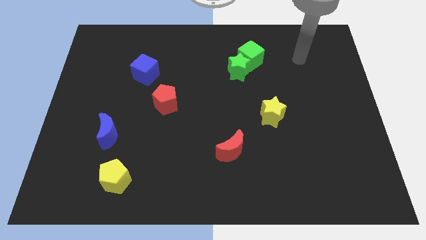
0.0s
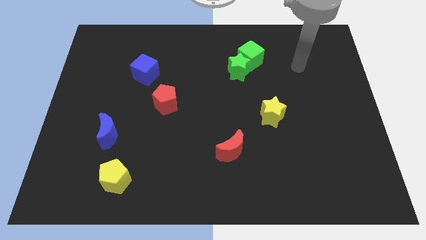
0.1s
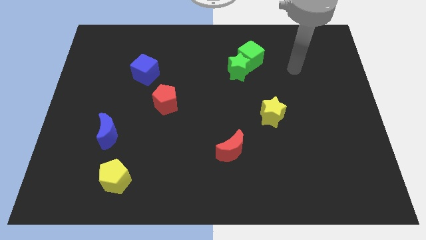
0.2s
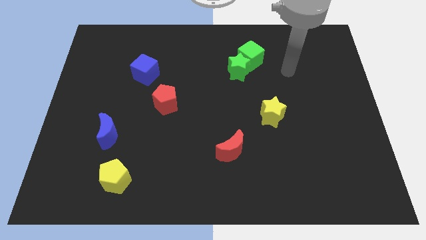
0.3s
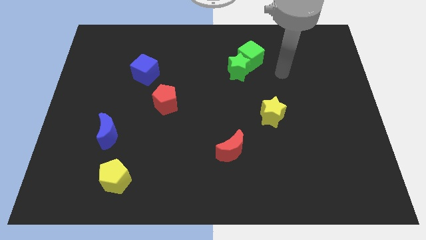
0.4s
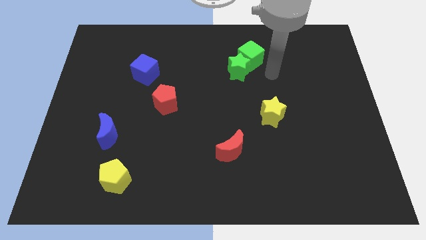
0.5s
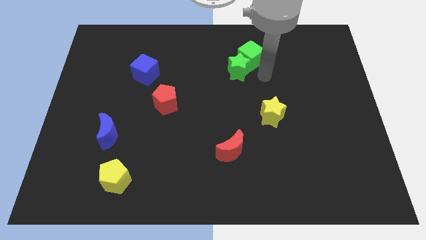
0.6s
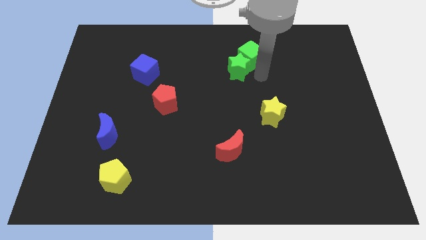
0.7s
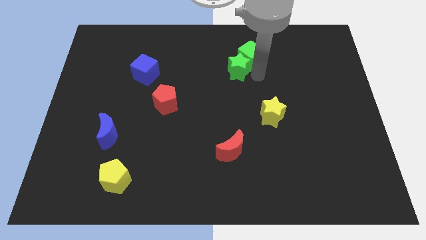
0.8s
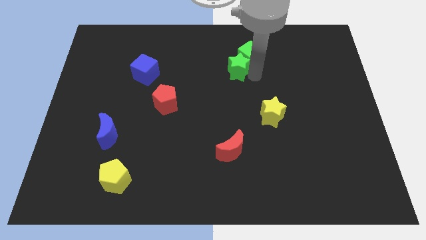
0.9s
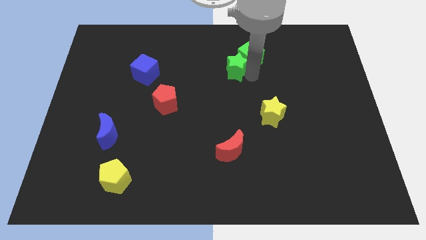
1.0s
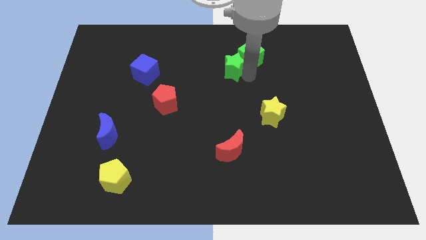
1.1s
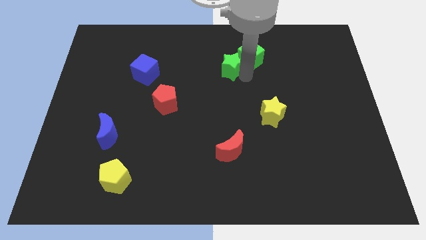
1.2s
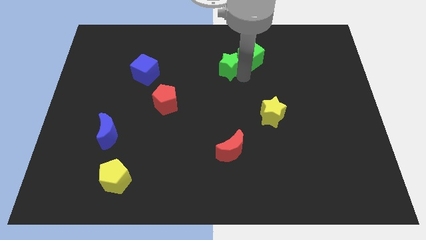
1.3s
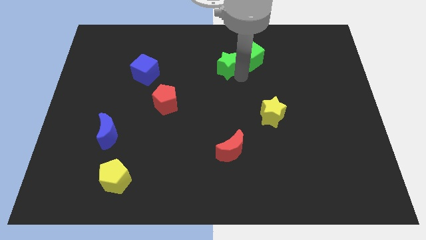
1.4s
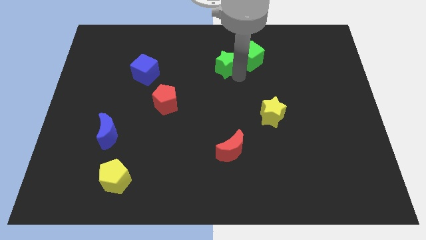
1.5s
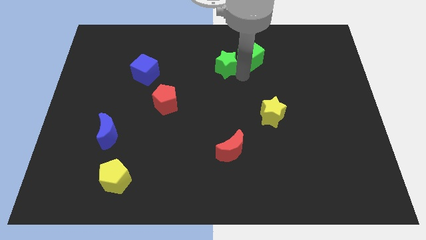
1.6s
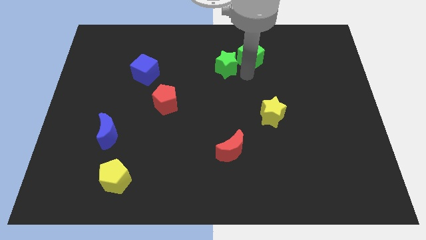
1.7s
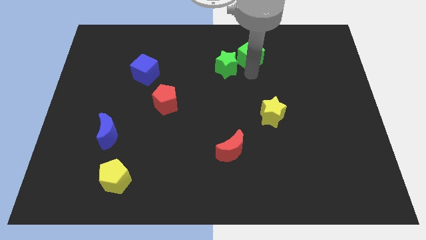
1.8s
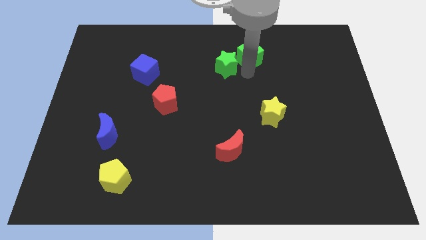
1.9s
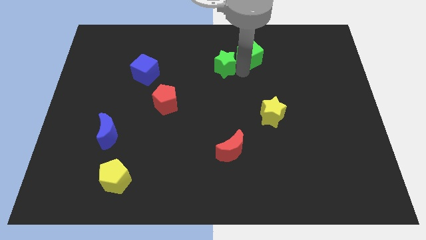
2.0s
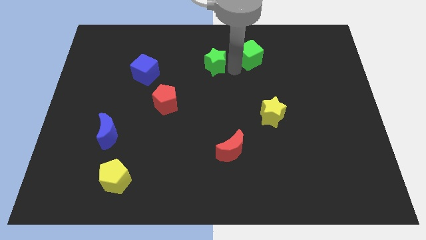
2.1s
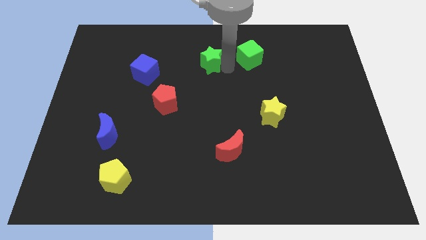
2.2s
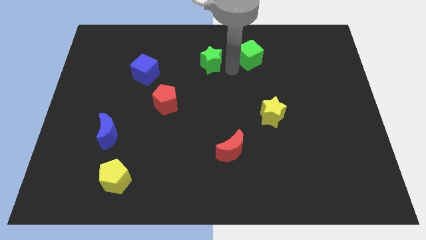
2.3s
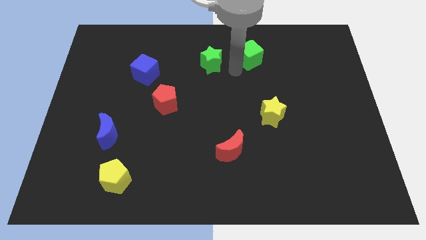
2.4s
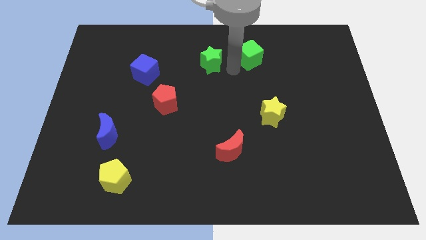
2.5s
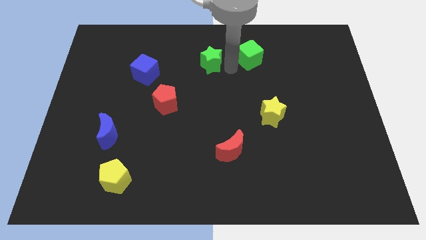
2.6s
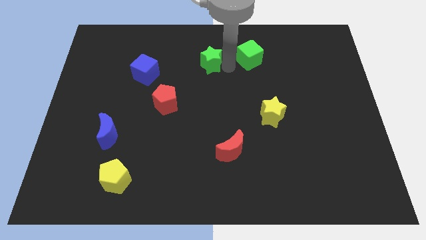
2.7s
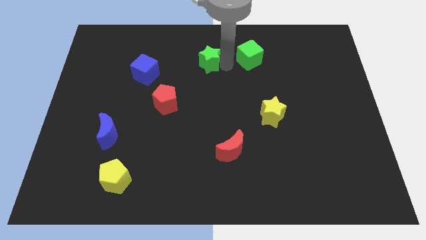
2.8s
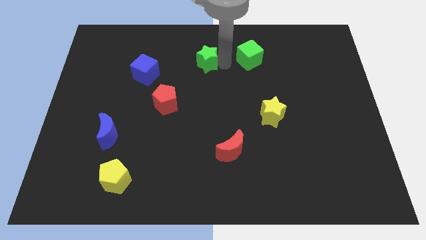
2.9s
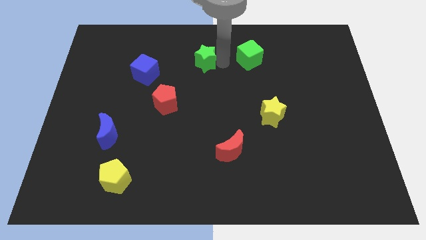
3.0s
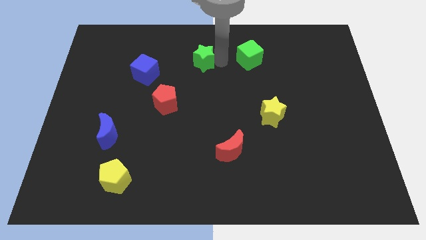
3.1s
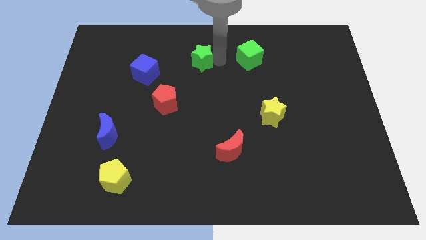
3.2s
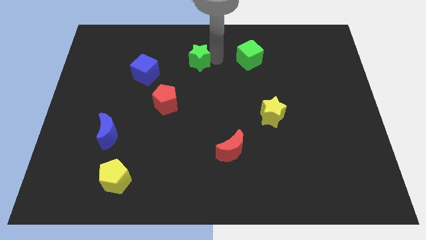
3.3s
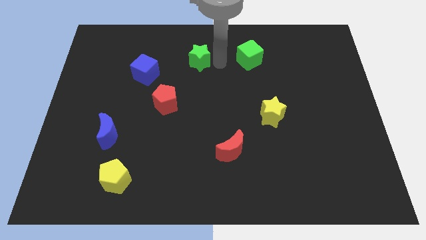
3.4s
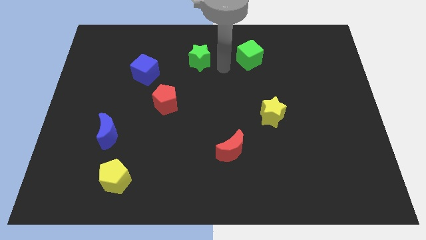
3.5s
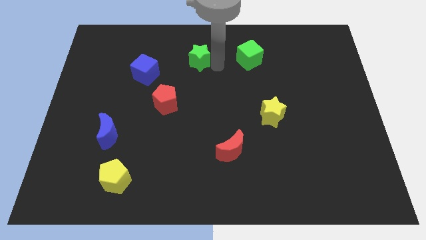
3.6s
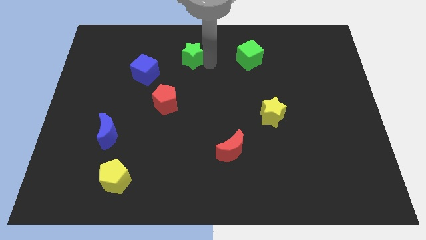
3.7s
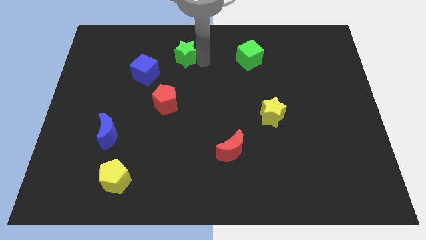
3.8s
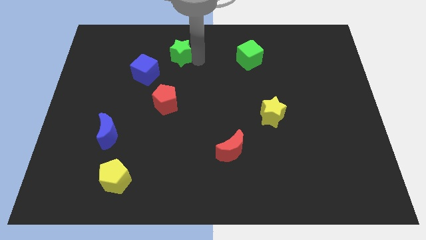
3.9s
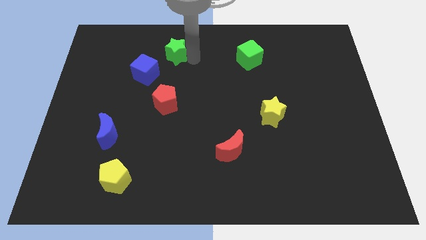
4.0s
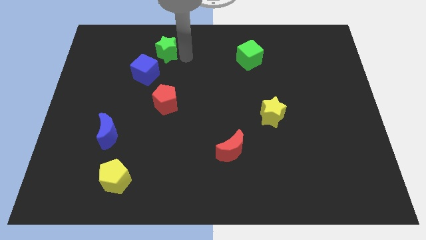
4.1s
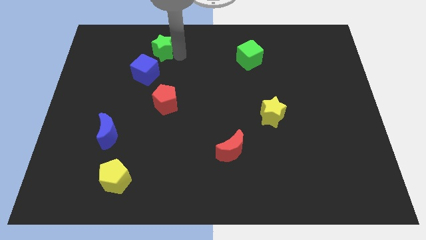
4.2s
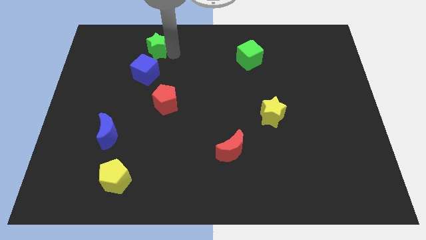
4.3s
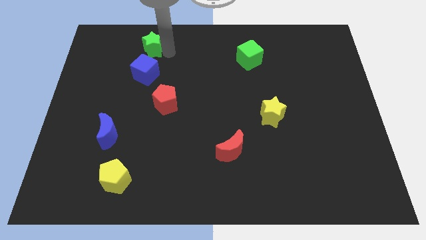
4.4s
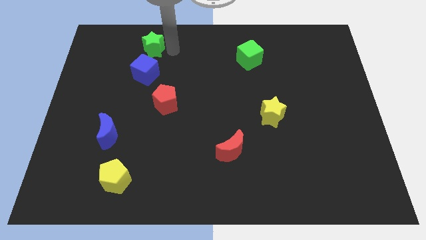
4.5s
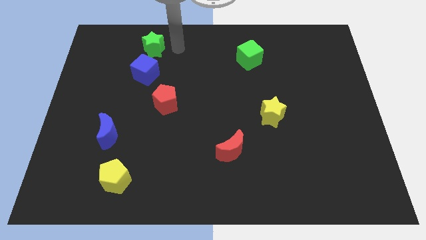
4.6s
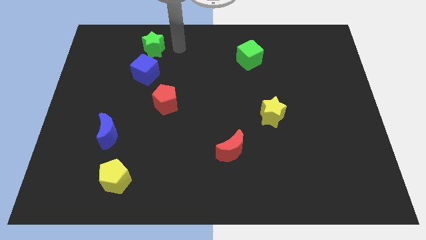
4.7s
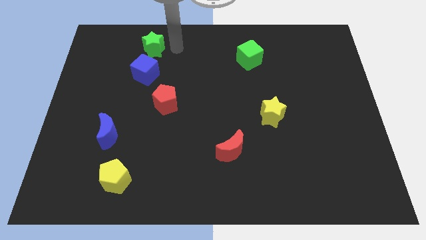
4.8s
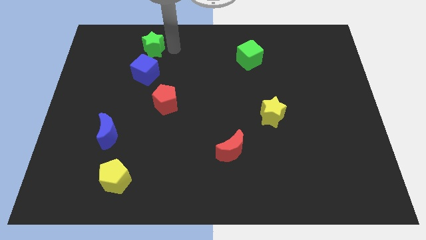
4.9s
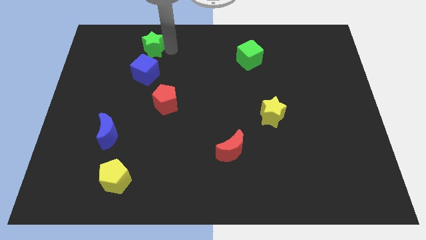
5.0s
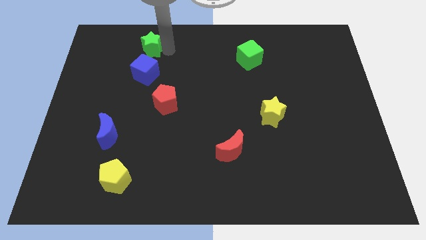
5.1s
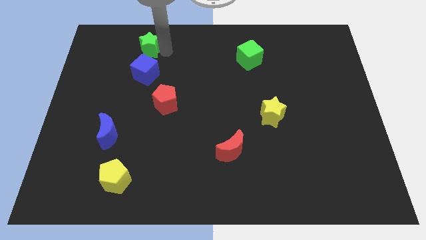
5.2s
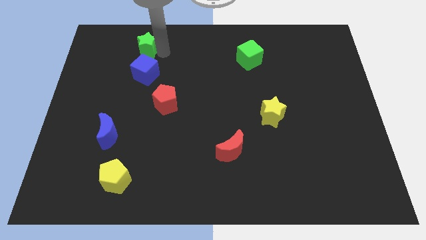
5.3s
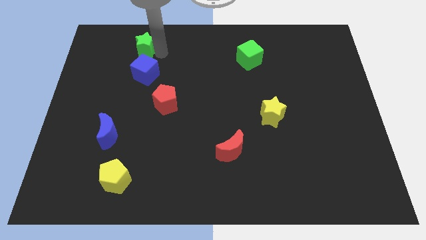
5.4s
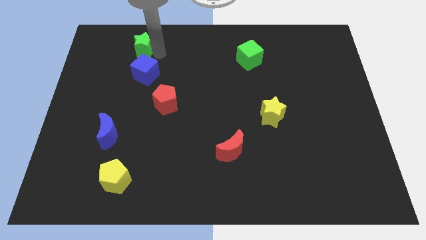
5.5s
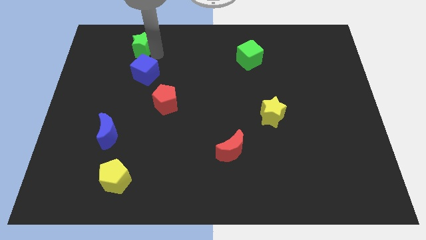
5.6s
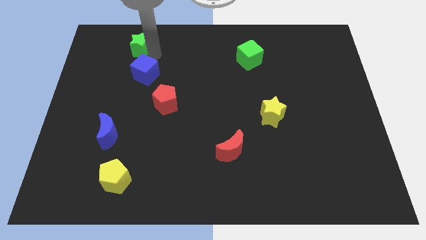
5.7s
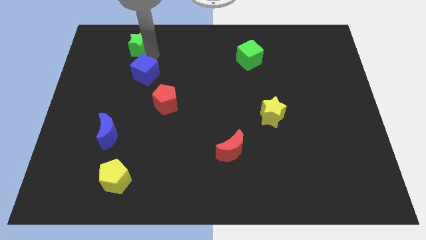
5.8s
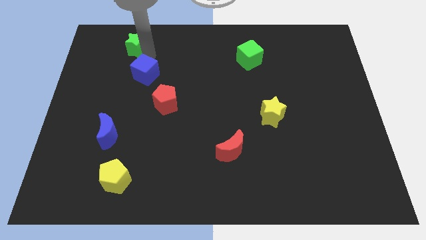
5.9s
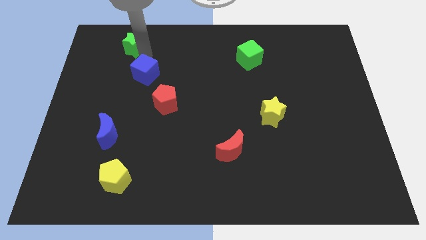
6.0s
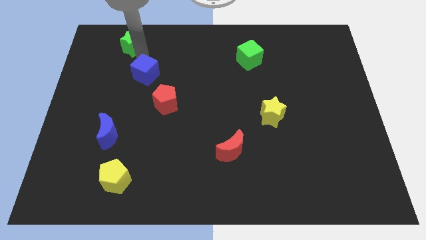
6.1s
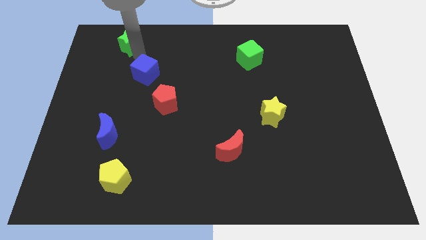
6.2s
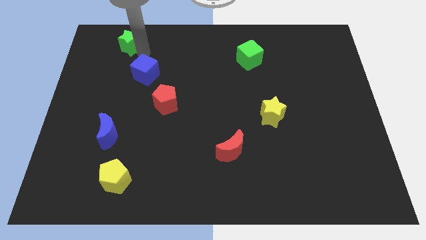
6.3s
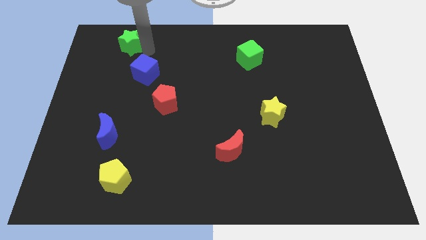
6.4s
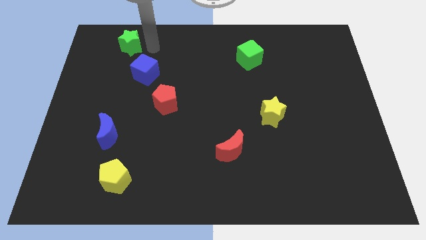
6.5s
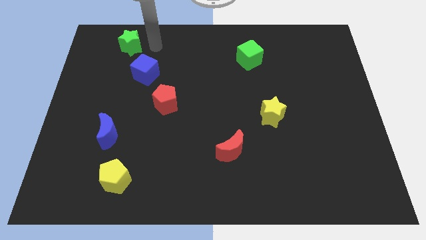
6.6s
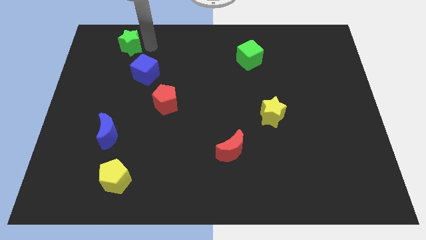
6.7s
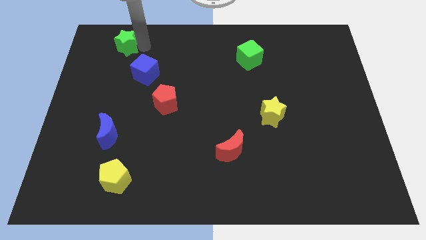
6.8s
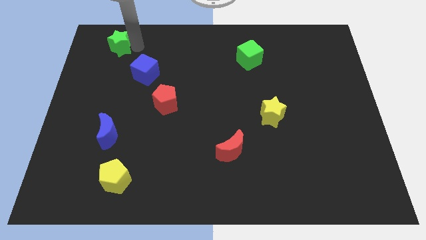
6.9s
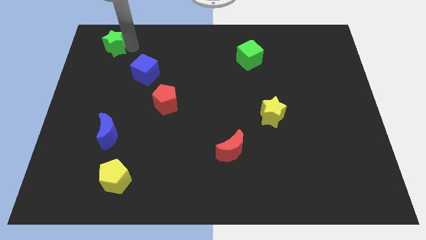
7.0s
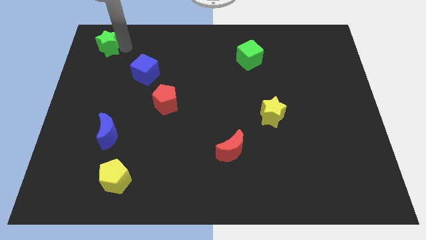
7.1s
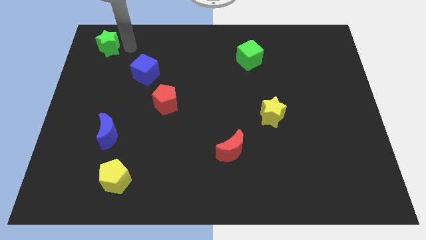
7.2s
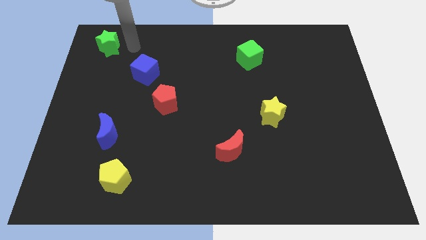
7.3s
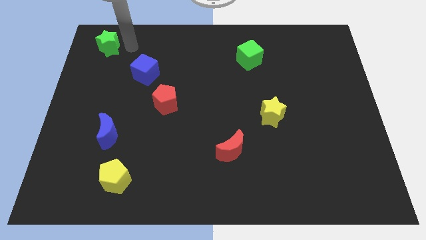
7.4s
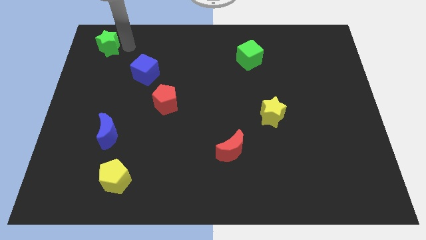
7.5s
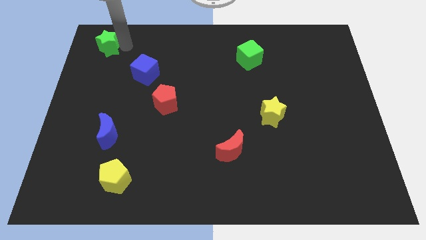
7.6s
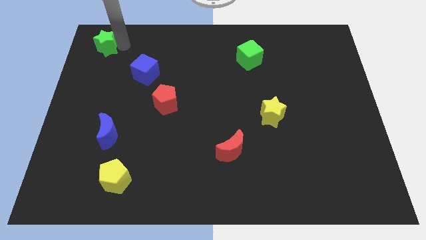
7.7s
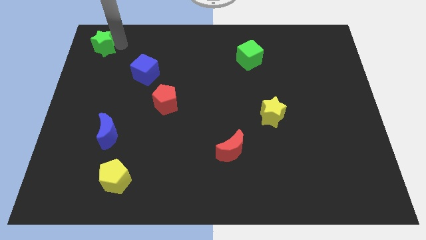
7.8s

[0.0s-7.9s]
move the green star to the top left
